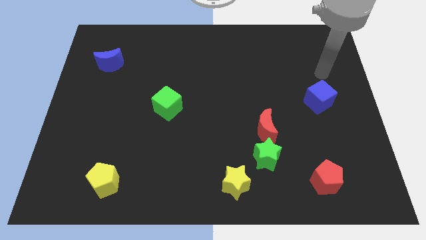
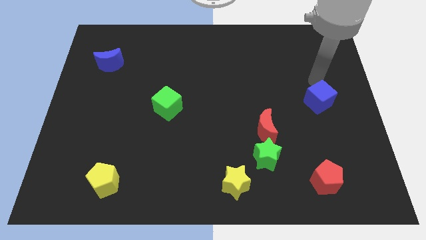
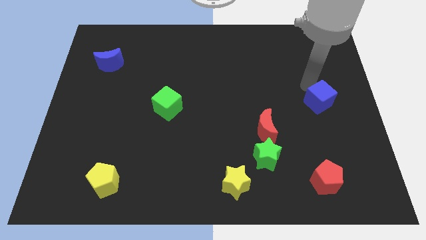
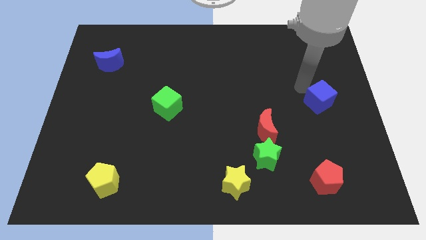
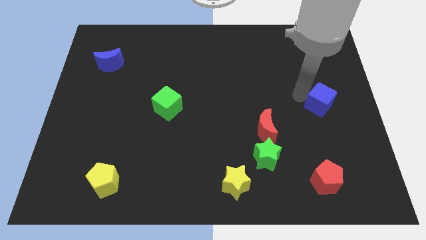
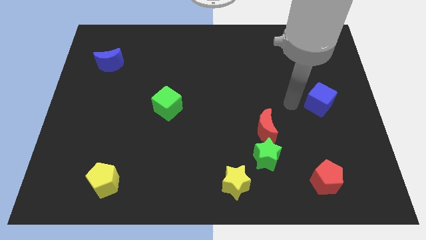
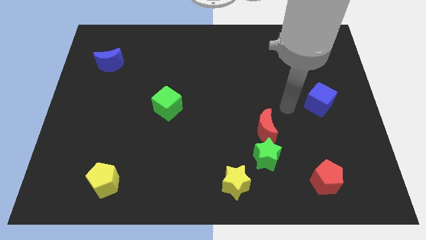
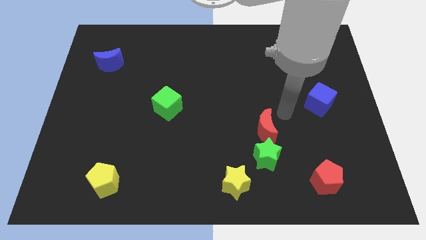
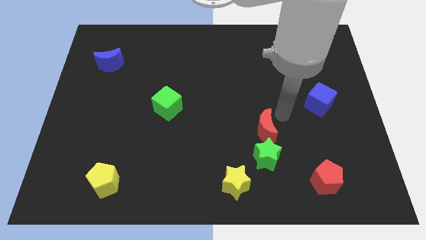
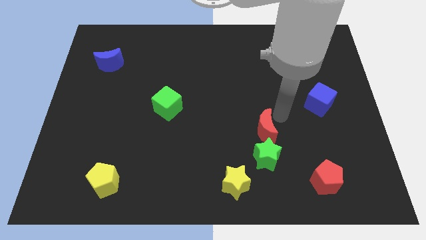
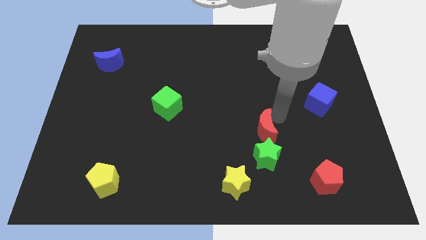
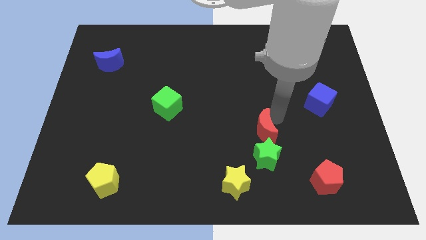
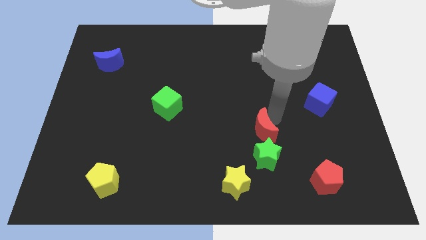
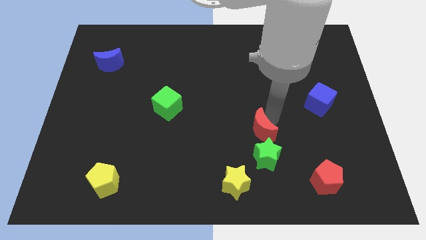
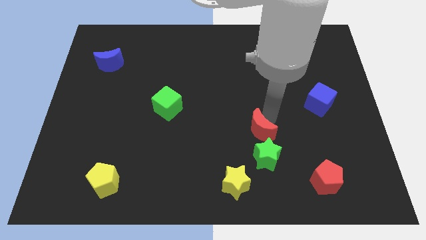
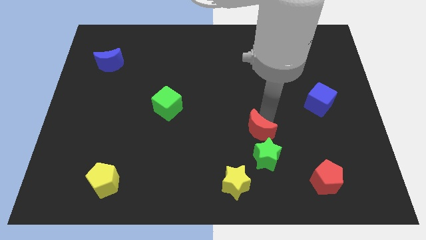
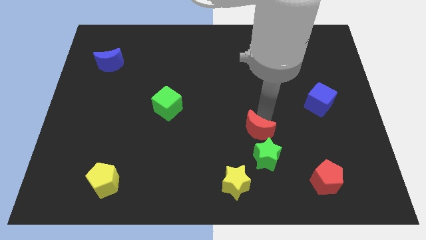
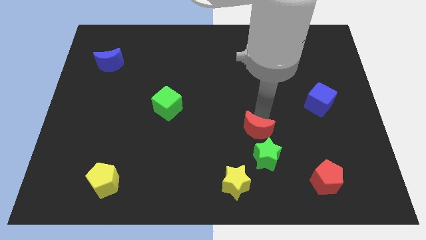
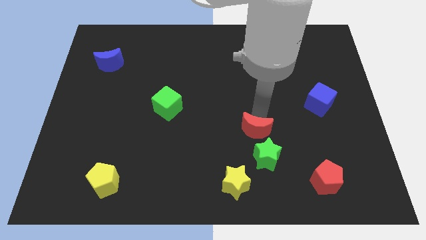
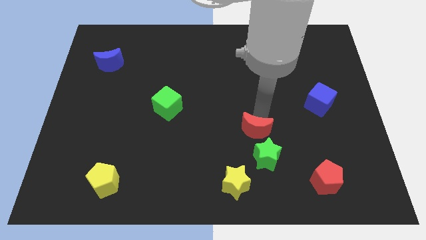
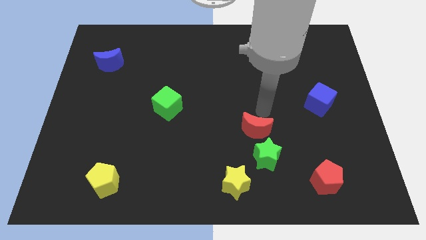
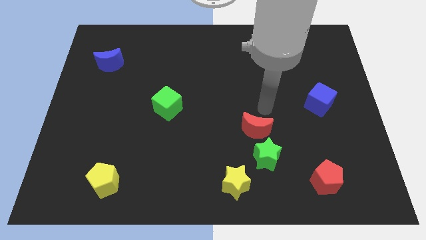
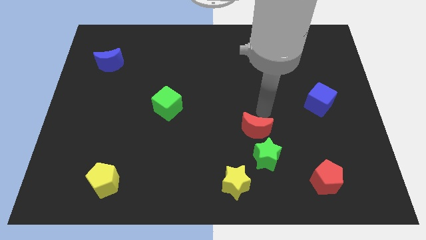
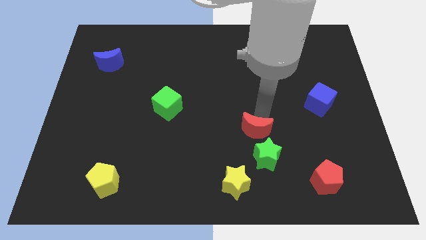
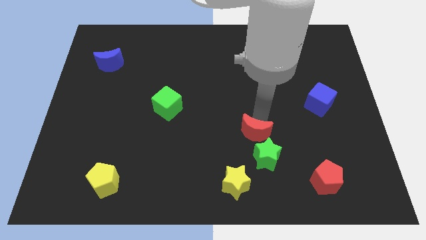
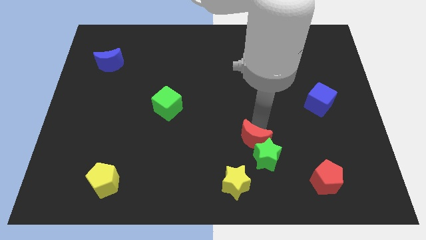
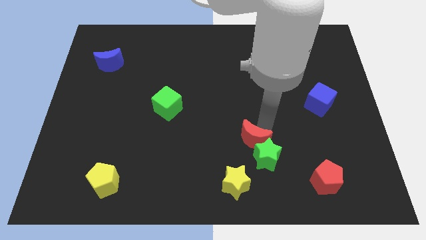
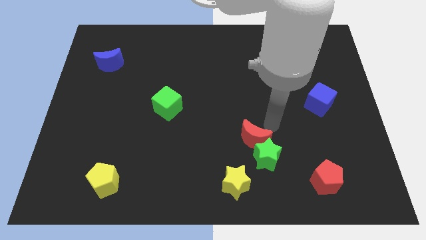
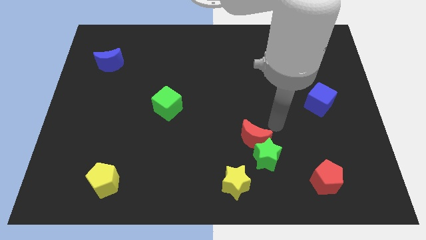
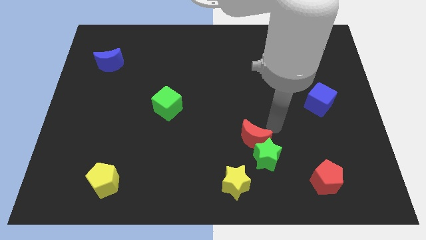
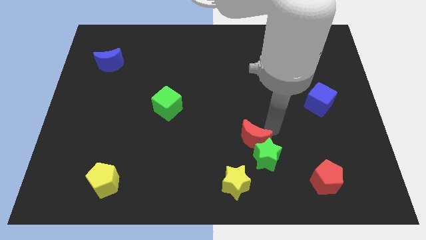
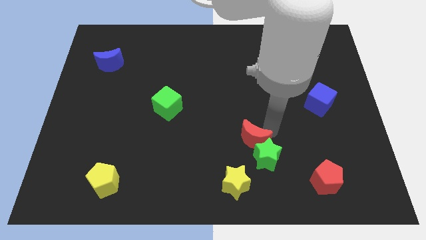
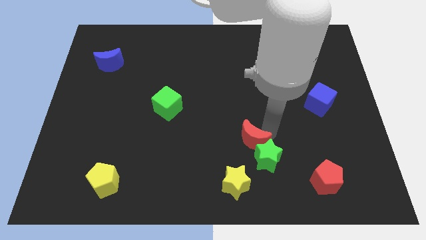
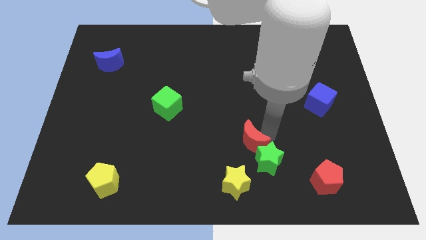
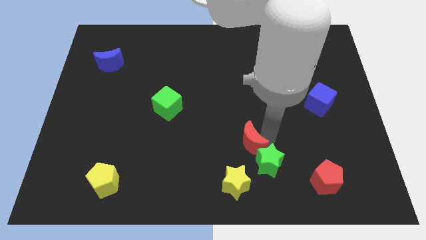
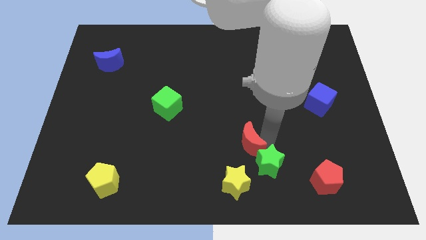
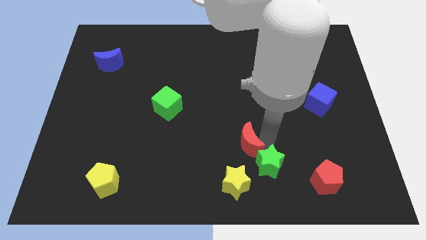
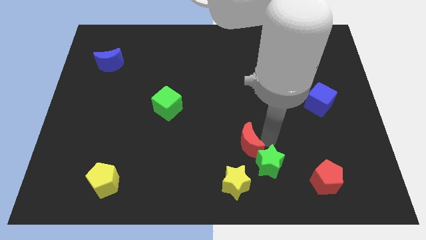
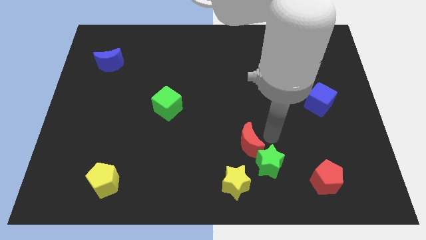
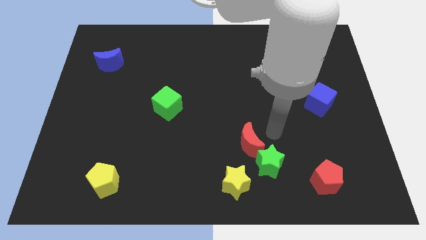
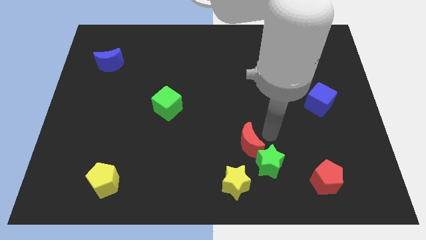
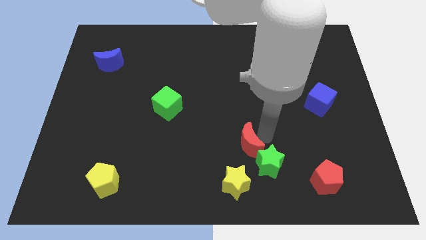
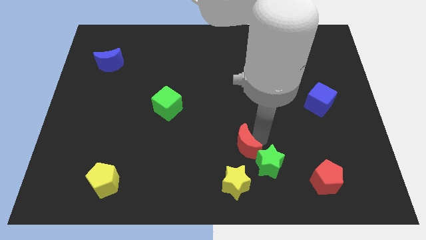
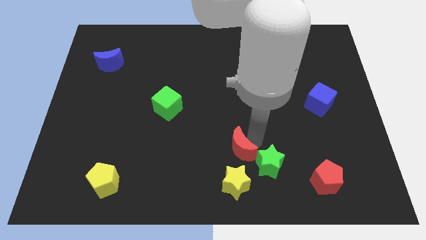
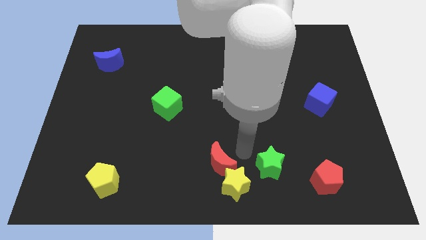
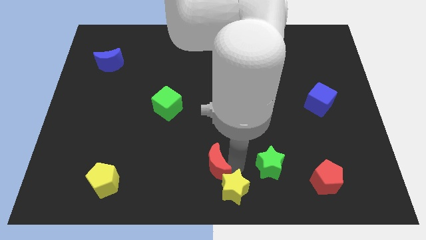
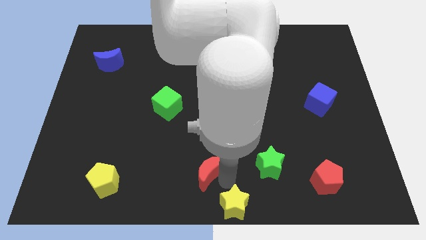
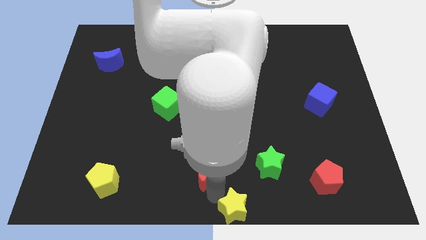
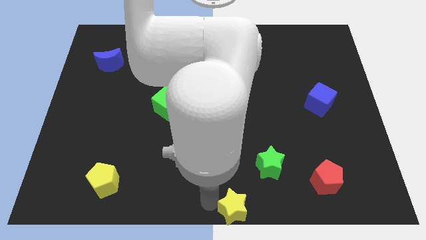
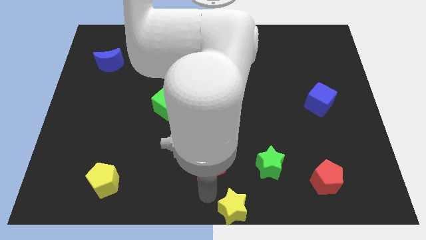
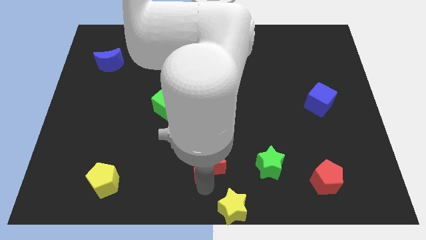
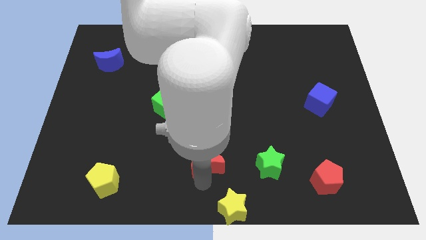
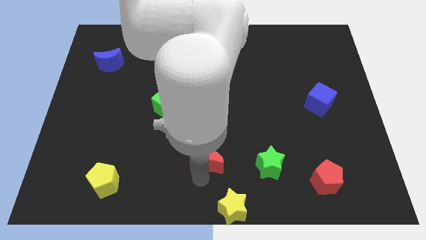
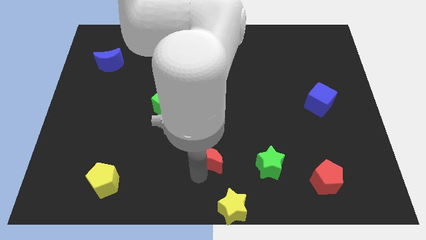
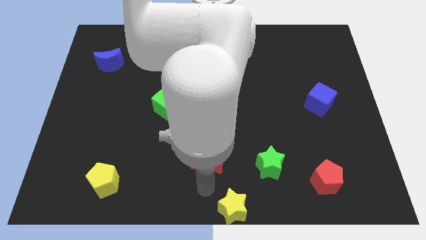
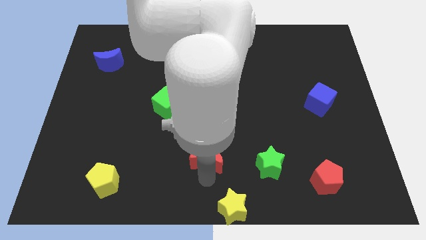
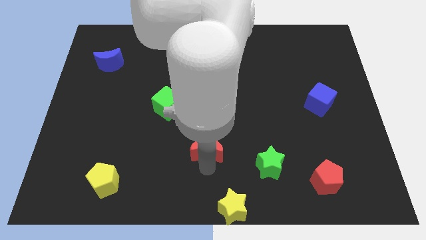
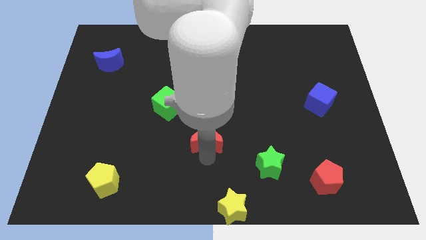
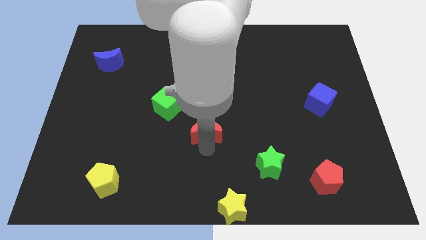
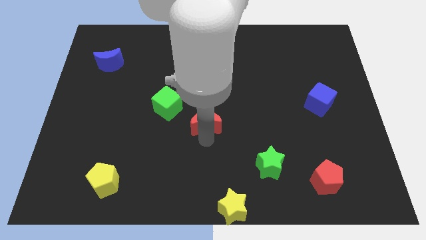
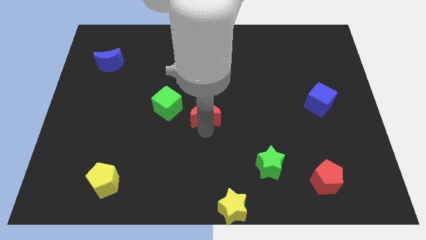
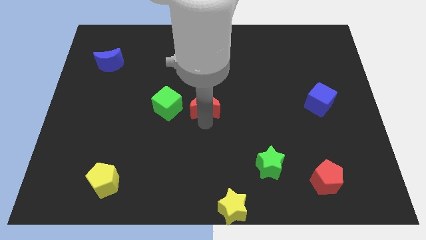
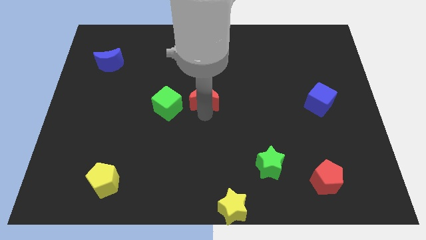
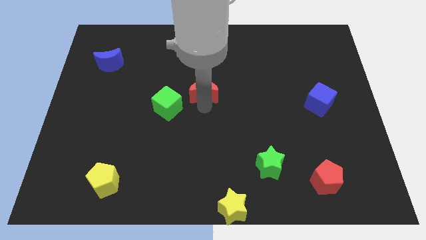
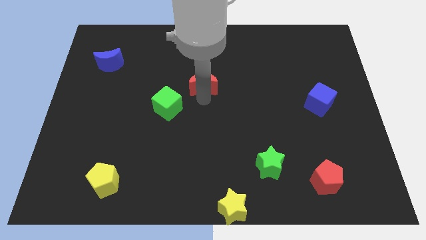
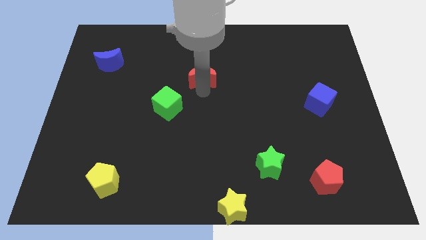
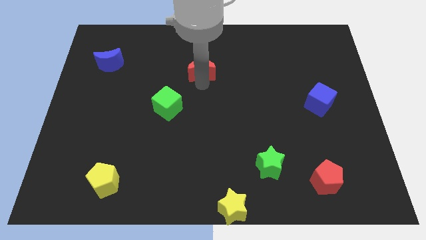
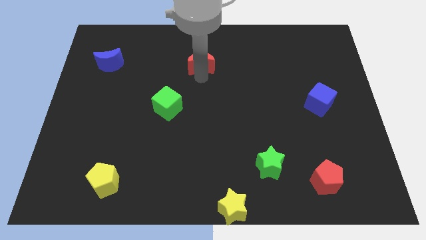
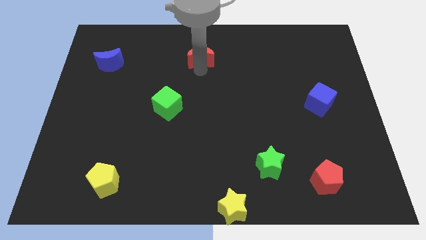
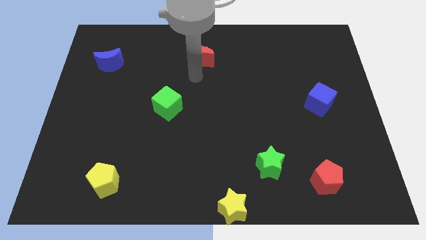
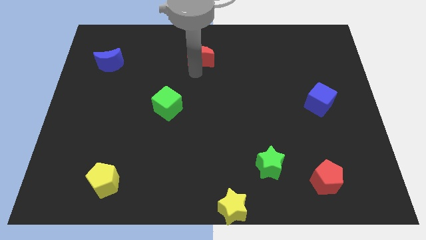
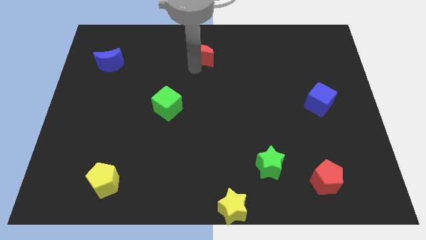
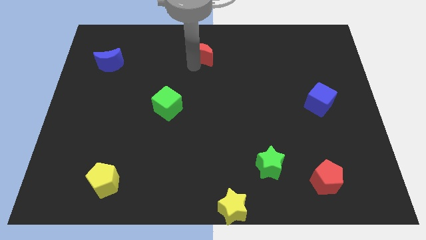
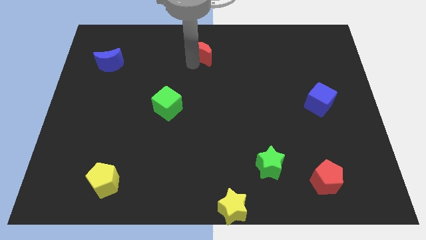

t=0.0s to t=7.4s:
move the red moon to the top
